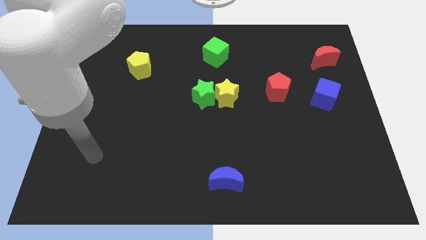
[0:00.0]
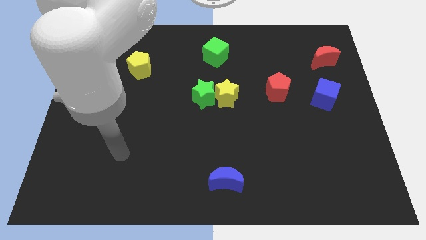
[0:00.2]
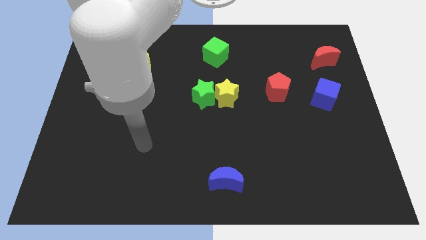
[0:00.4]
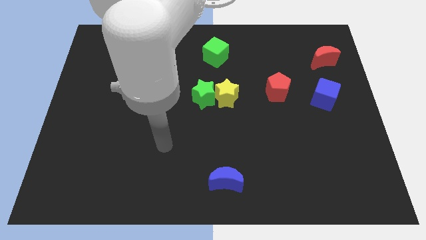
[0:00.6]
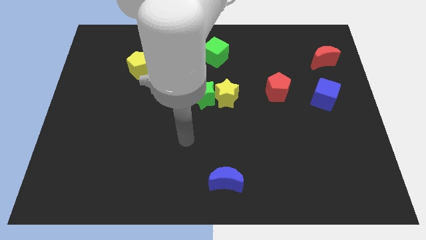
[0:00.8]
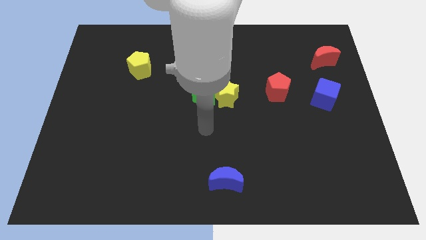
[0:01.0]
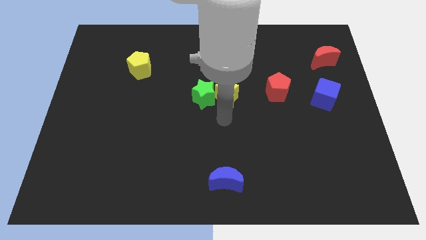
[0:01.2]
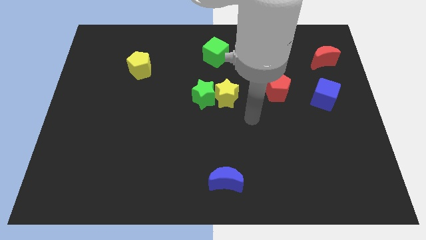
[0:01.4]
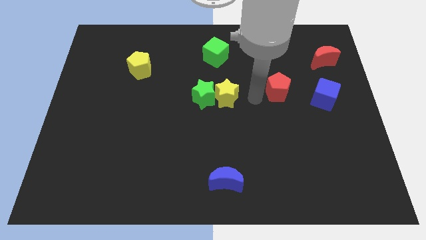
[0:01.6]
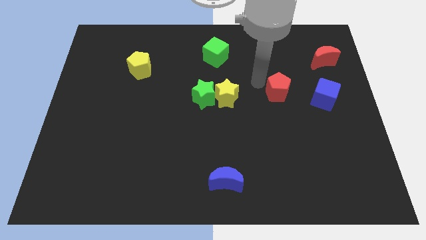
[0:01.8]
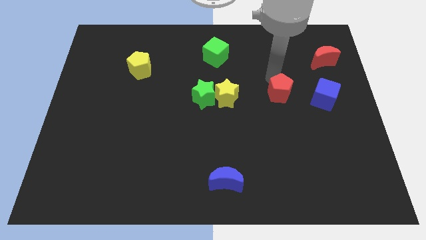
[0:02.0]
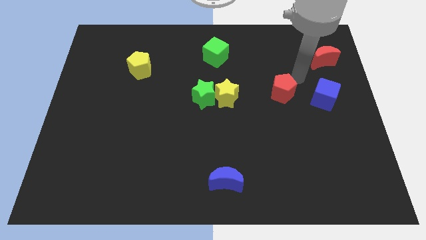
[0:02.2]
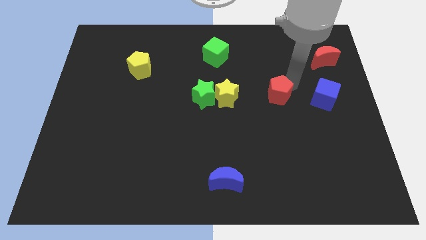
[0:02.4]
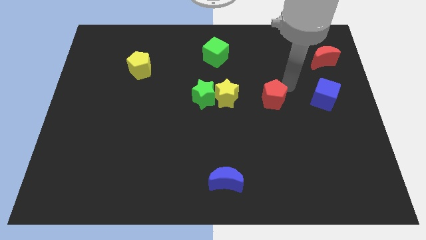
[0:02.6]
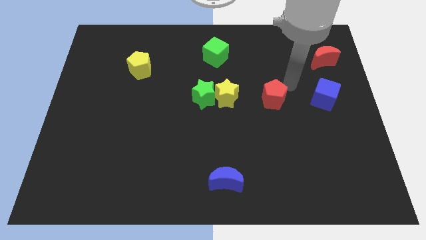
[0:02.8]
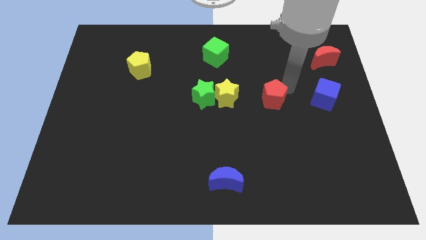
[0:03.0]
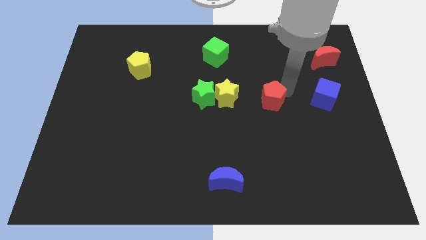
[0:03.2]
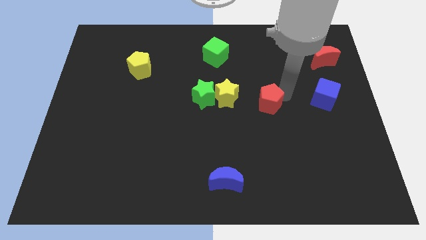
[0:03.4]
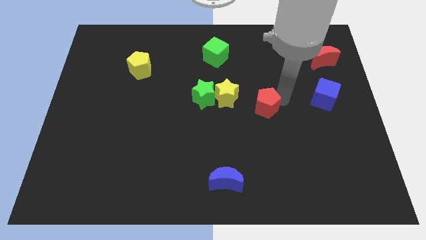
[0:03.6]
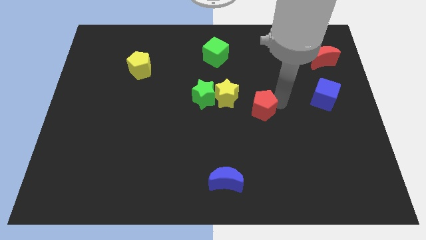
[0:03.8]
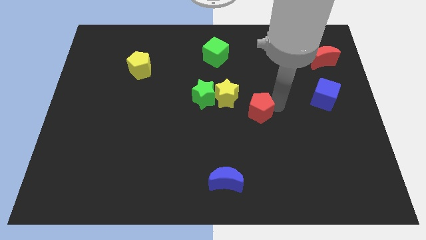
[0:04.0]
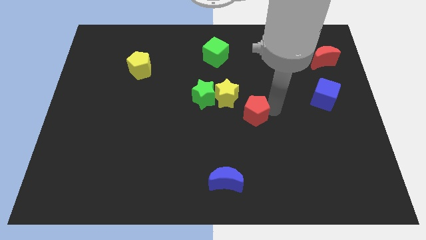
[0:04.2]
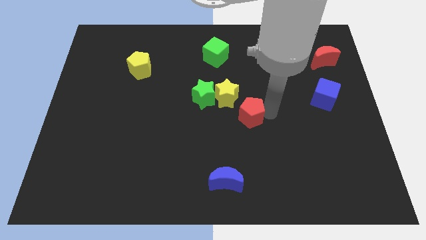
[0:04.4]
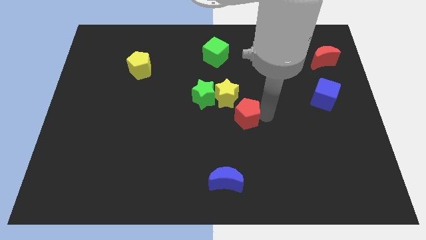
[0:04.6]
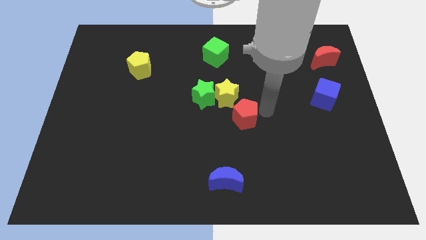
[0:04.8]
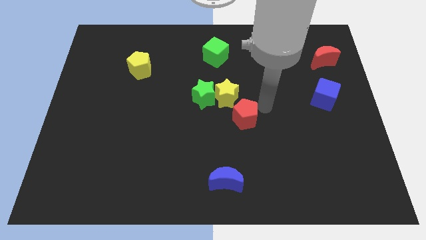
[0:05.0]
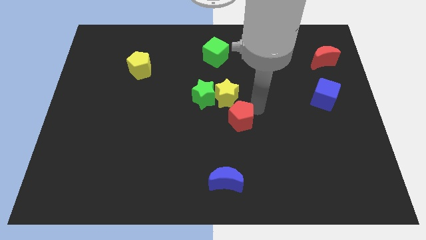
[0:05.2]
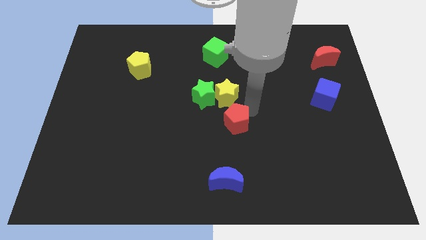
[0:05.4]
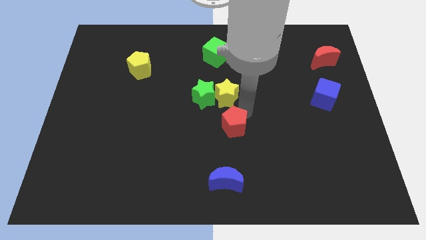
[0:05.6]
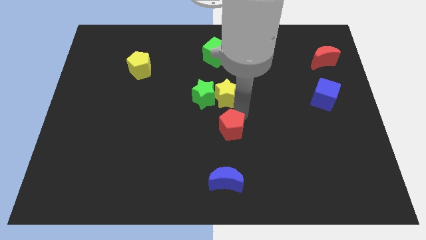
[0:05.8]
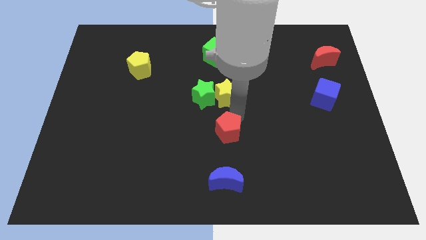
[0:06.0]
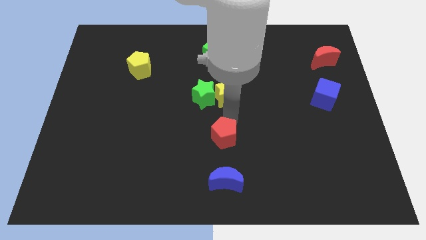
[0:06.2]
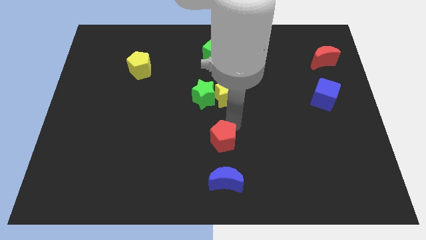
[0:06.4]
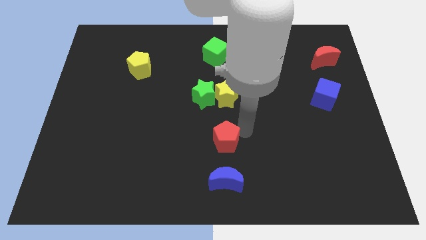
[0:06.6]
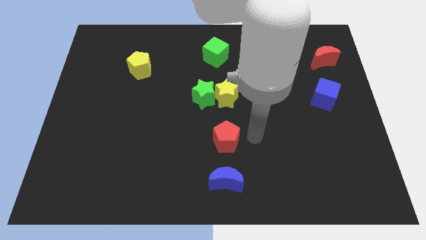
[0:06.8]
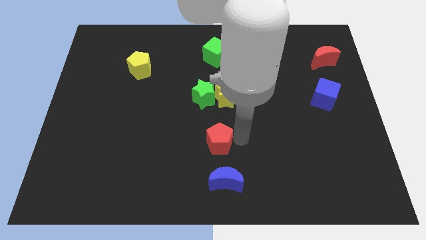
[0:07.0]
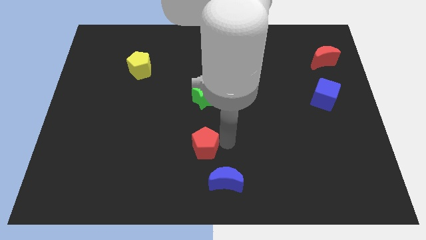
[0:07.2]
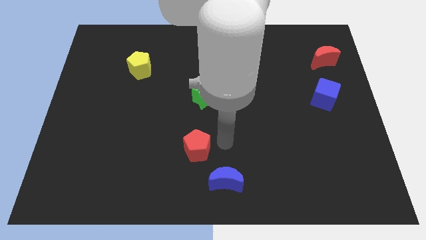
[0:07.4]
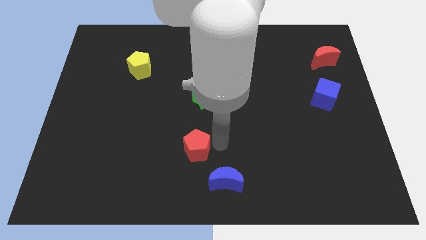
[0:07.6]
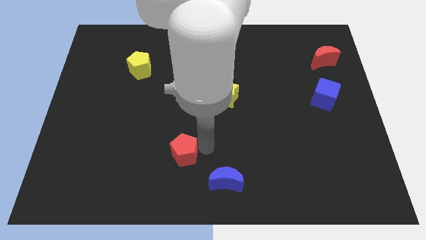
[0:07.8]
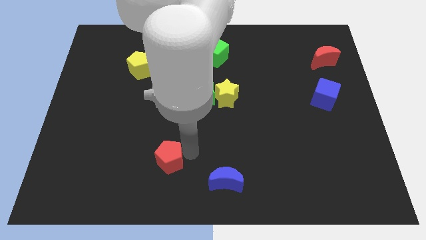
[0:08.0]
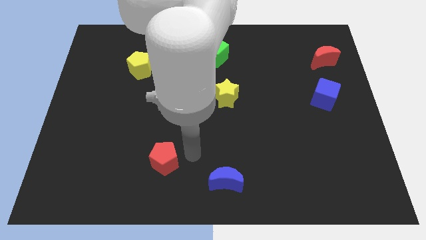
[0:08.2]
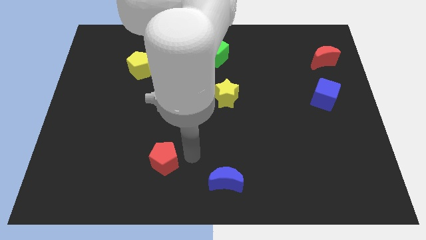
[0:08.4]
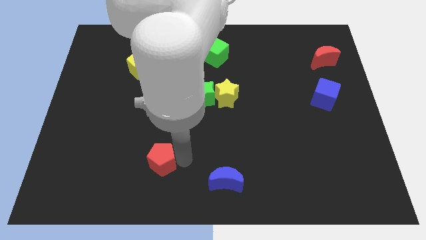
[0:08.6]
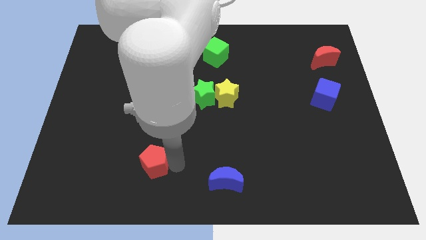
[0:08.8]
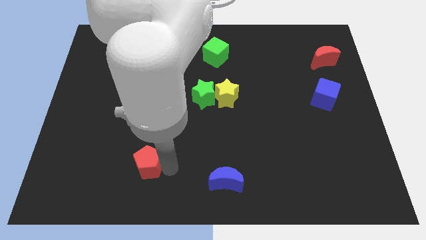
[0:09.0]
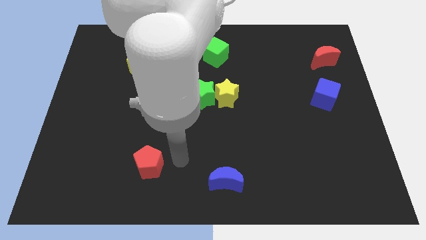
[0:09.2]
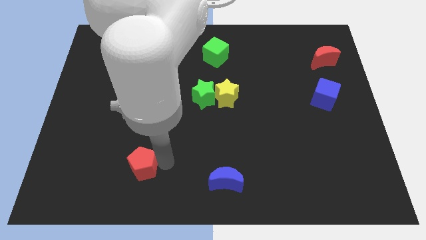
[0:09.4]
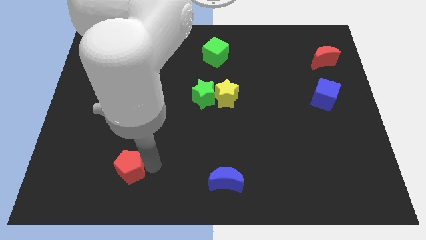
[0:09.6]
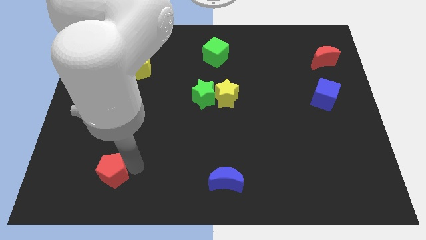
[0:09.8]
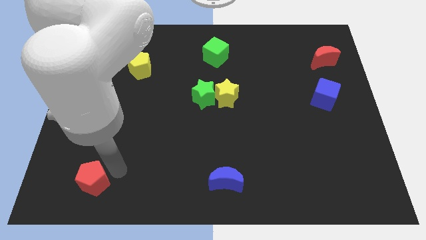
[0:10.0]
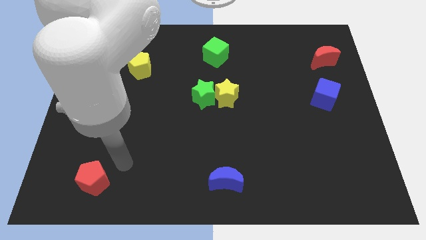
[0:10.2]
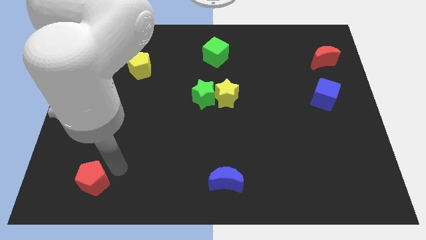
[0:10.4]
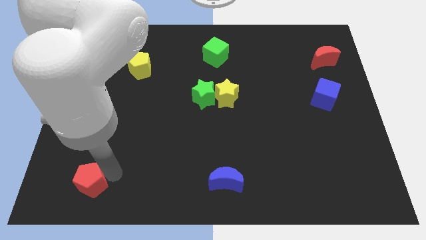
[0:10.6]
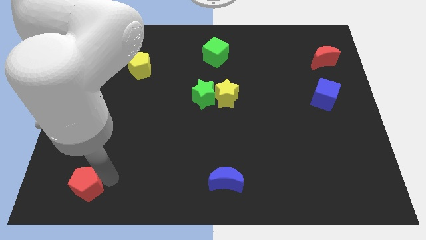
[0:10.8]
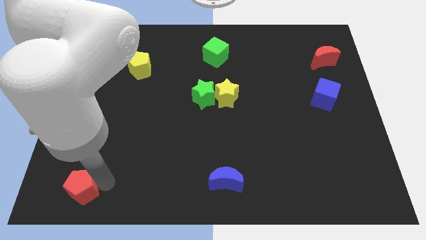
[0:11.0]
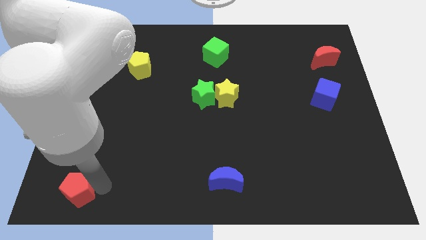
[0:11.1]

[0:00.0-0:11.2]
slide the red pentagon to the lower left corner
